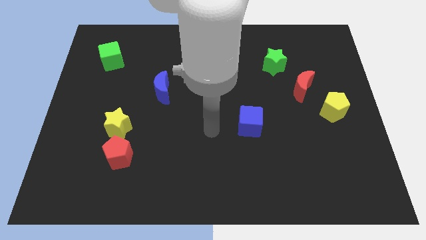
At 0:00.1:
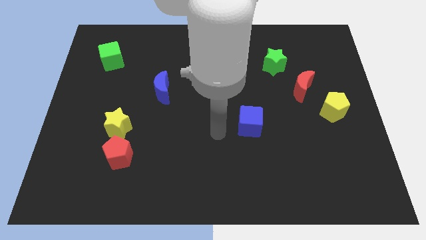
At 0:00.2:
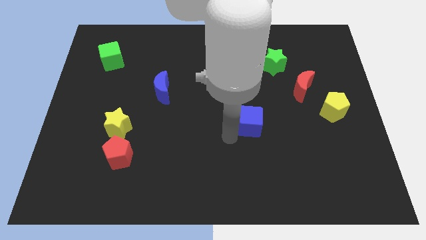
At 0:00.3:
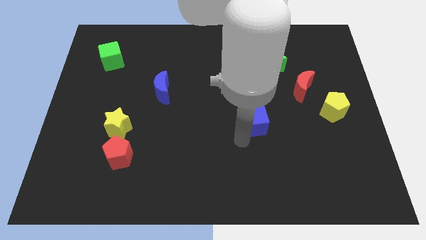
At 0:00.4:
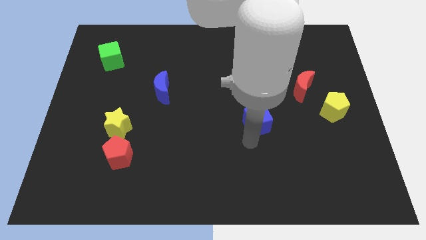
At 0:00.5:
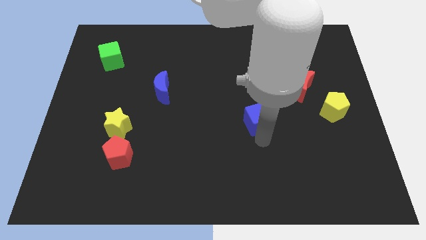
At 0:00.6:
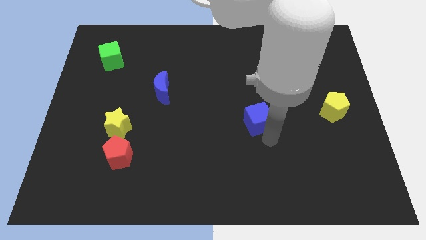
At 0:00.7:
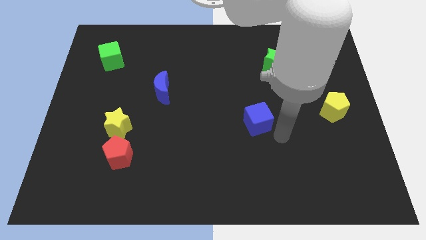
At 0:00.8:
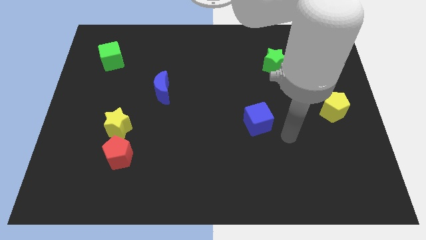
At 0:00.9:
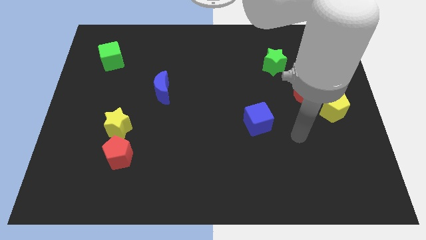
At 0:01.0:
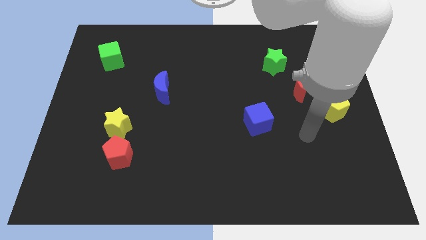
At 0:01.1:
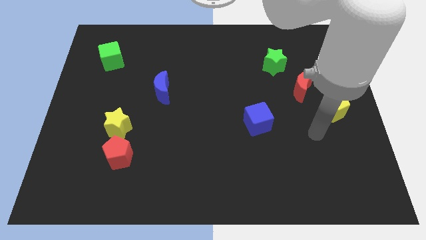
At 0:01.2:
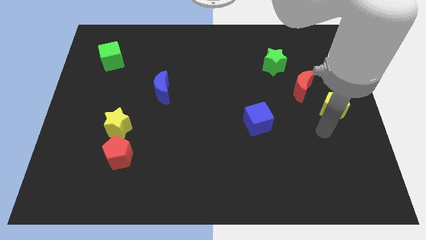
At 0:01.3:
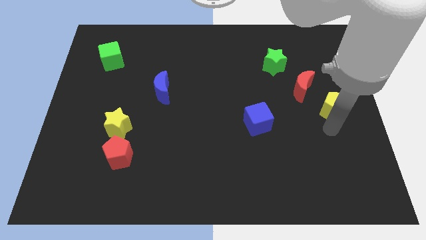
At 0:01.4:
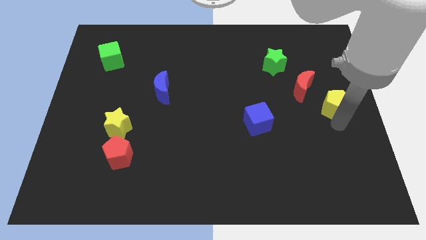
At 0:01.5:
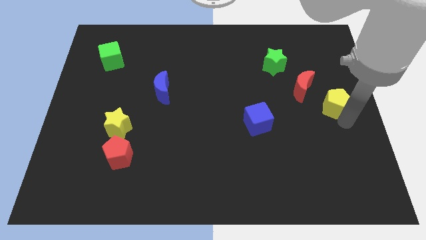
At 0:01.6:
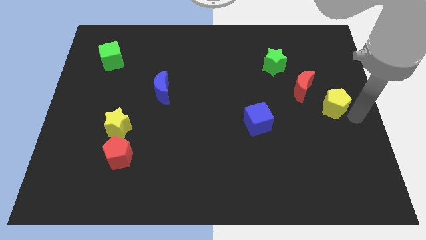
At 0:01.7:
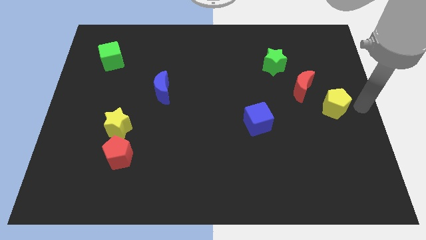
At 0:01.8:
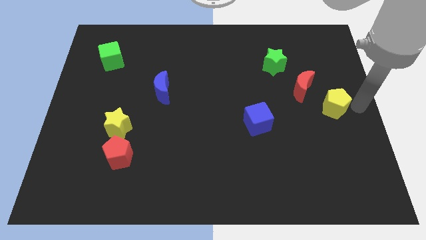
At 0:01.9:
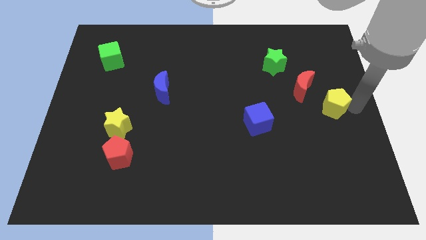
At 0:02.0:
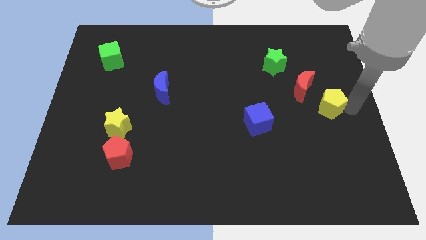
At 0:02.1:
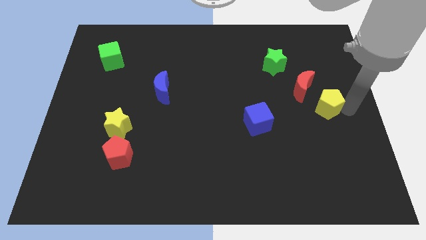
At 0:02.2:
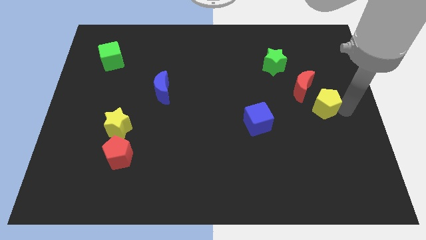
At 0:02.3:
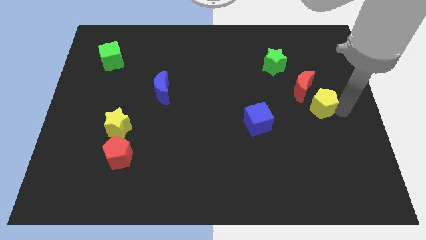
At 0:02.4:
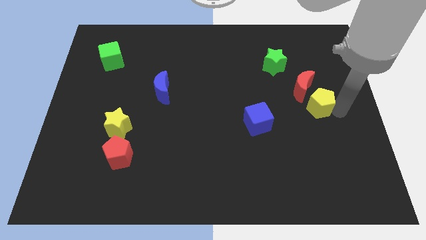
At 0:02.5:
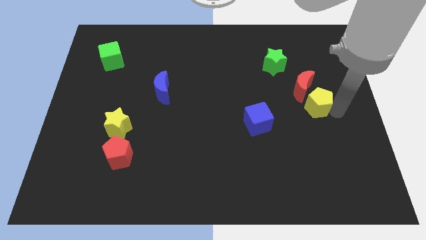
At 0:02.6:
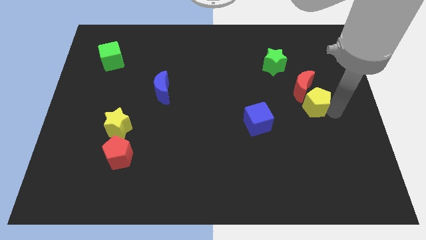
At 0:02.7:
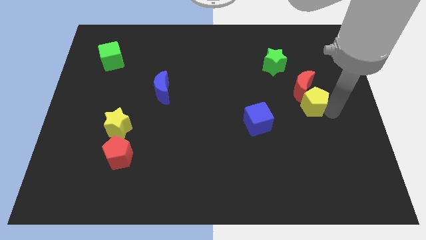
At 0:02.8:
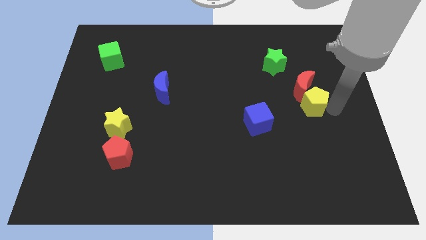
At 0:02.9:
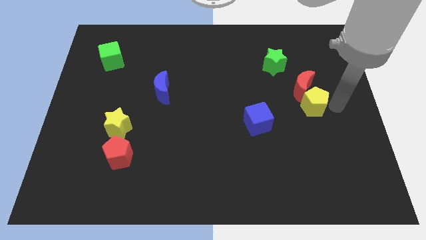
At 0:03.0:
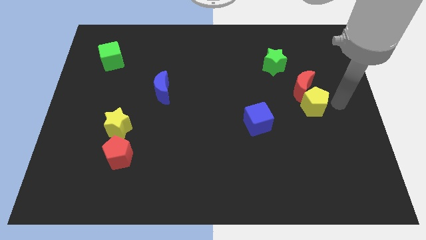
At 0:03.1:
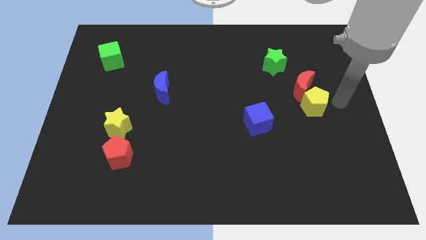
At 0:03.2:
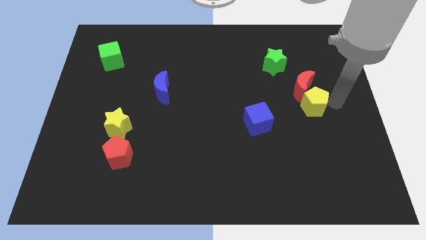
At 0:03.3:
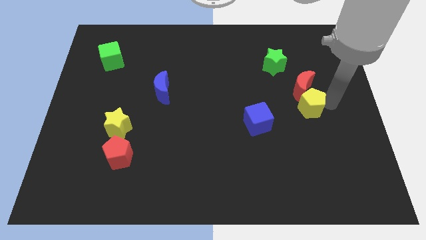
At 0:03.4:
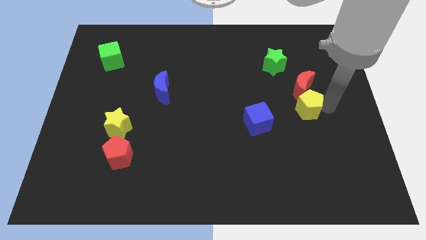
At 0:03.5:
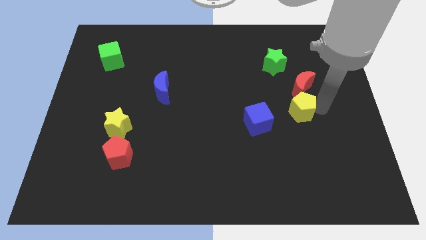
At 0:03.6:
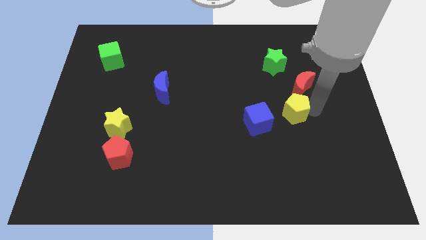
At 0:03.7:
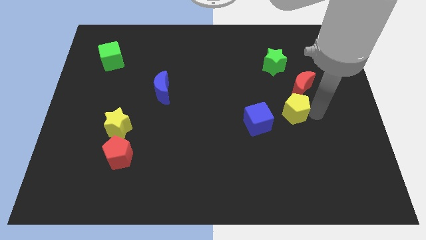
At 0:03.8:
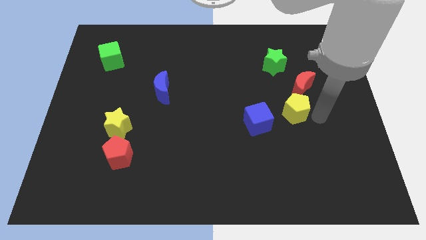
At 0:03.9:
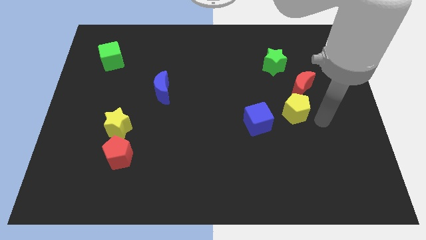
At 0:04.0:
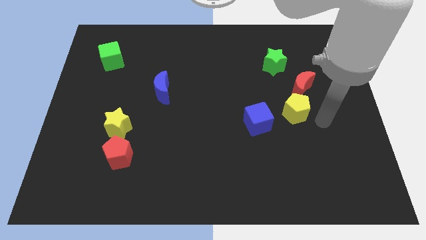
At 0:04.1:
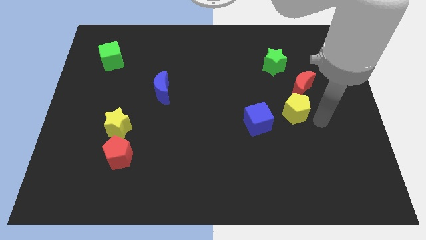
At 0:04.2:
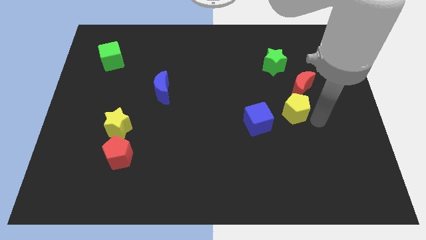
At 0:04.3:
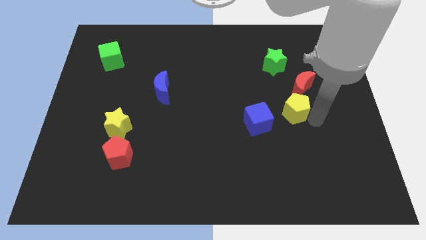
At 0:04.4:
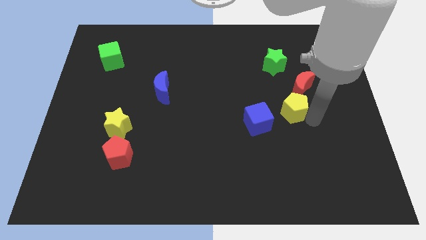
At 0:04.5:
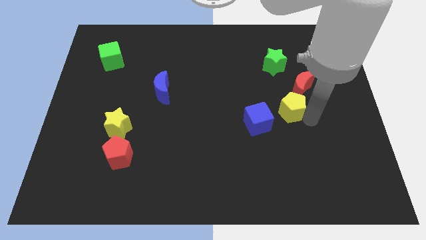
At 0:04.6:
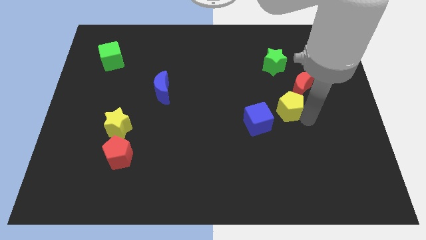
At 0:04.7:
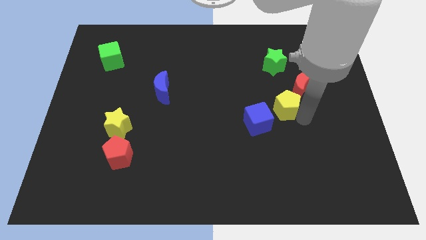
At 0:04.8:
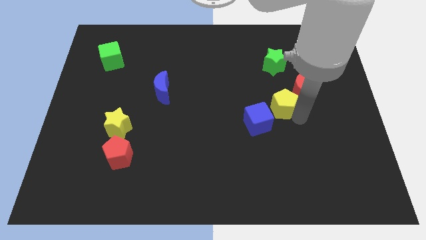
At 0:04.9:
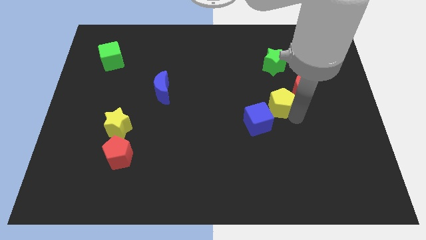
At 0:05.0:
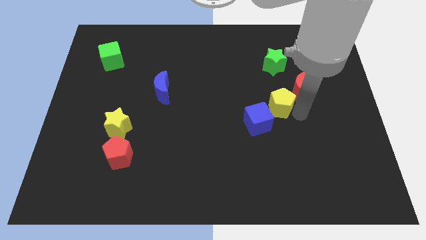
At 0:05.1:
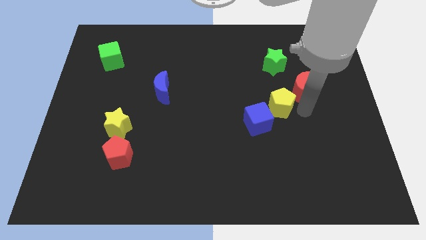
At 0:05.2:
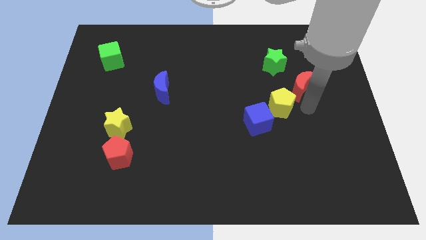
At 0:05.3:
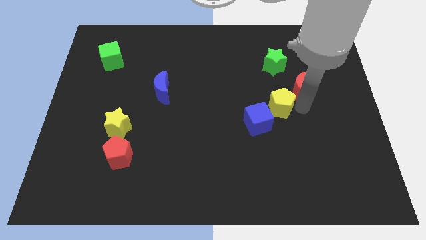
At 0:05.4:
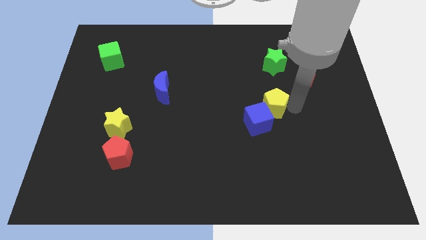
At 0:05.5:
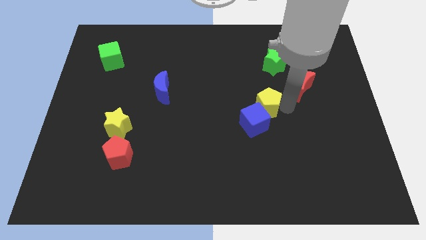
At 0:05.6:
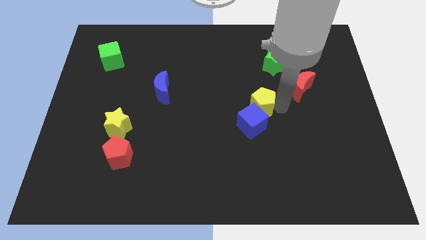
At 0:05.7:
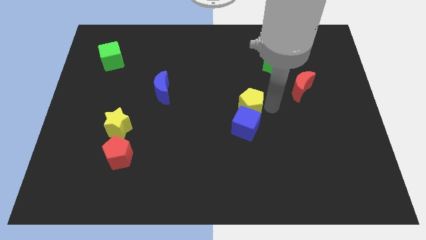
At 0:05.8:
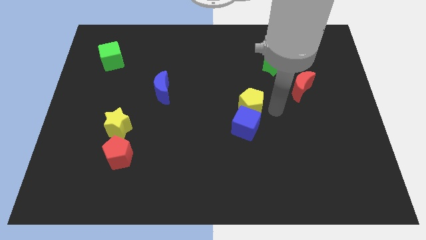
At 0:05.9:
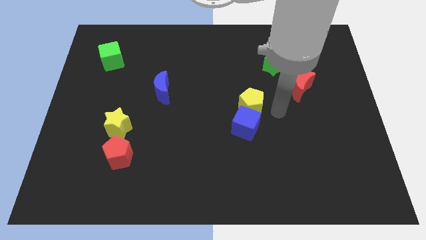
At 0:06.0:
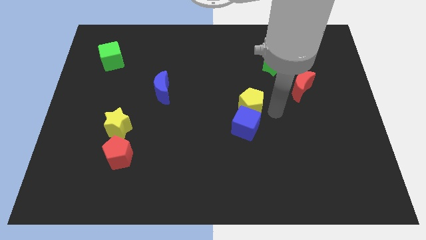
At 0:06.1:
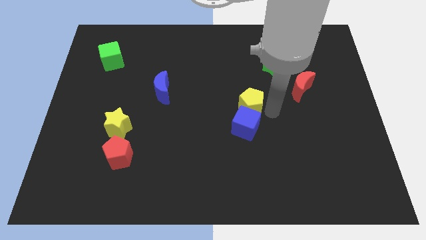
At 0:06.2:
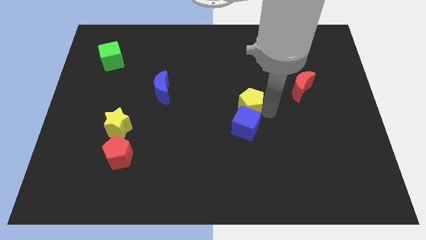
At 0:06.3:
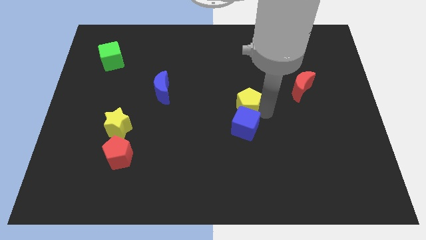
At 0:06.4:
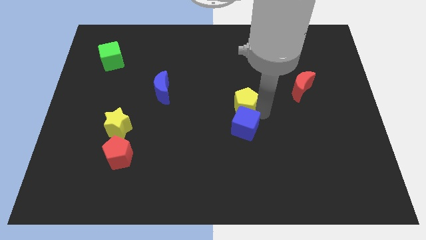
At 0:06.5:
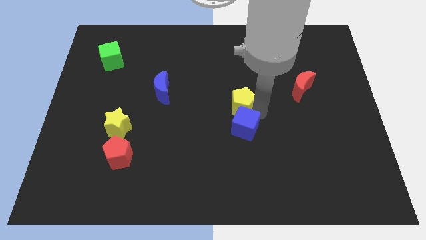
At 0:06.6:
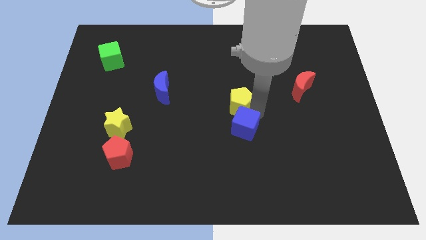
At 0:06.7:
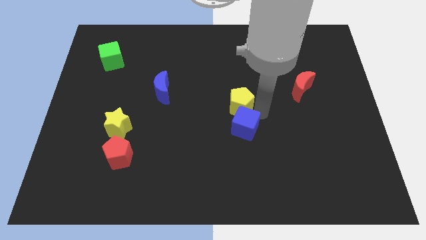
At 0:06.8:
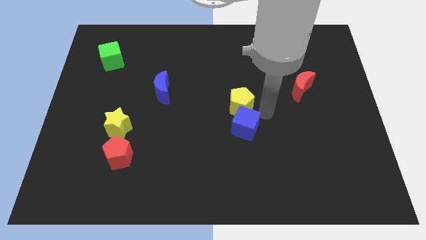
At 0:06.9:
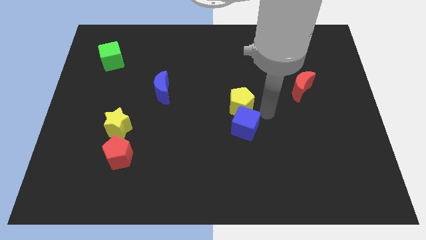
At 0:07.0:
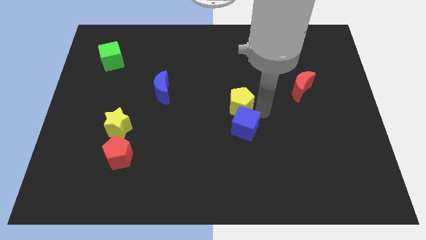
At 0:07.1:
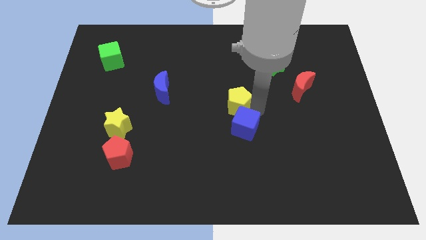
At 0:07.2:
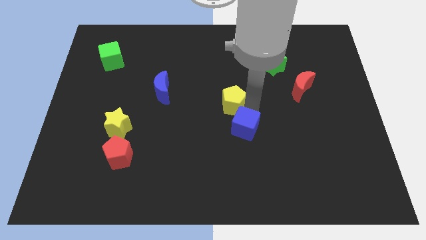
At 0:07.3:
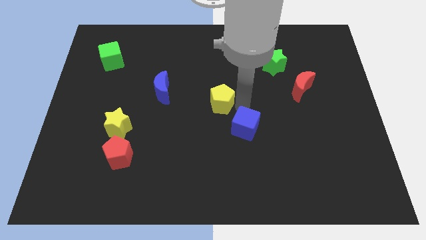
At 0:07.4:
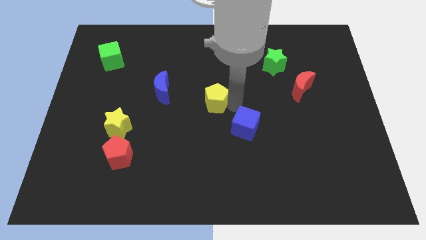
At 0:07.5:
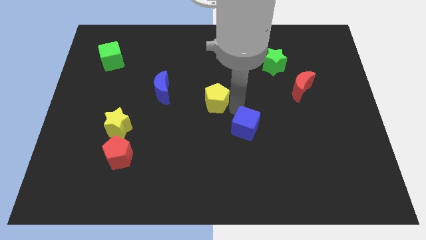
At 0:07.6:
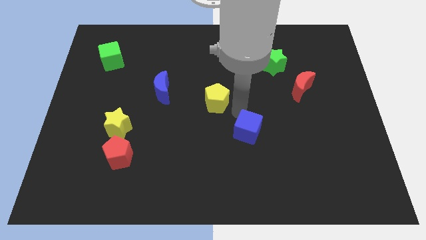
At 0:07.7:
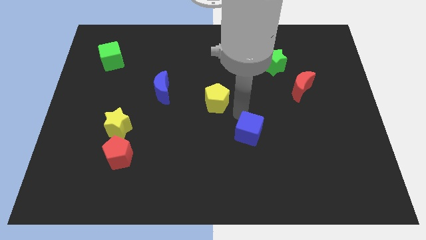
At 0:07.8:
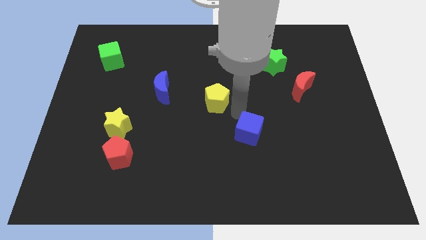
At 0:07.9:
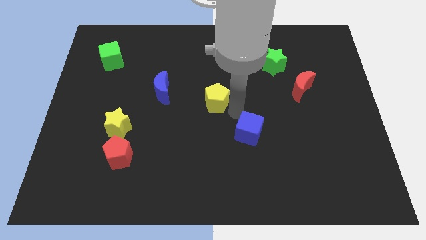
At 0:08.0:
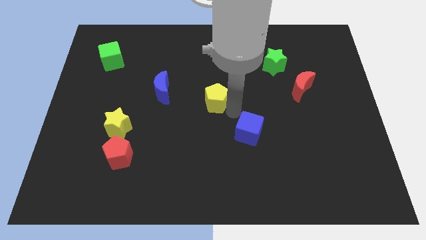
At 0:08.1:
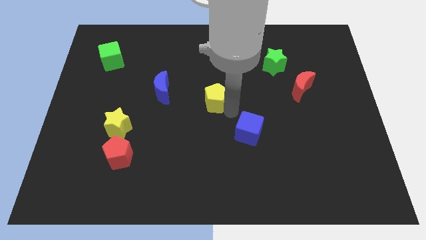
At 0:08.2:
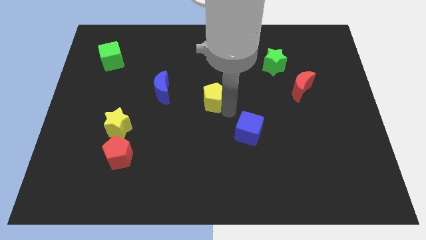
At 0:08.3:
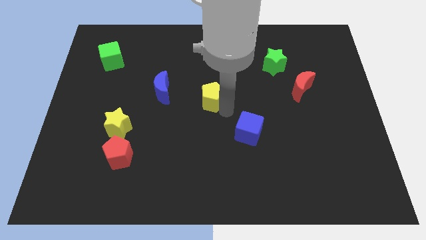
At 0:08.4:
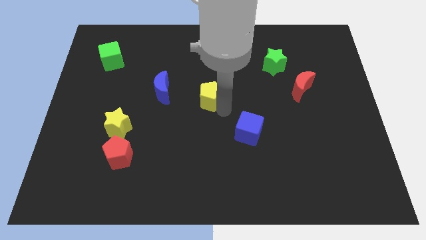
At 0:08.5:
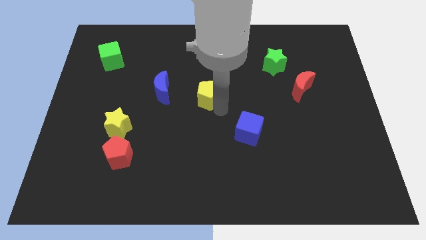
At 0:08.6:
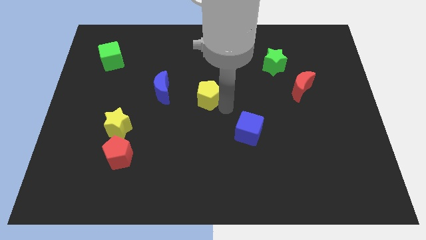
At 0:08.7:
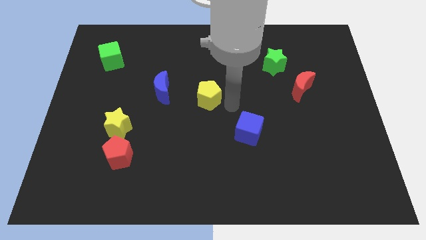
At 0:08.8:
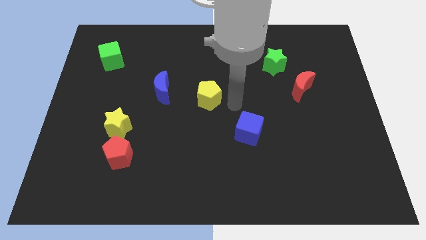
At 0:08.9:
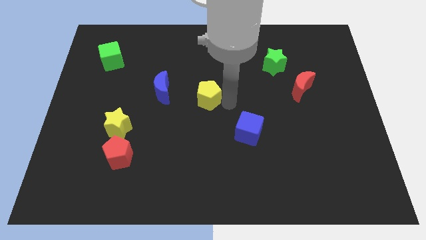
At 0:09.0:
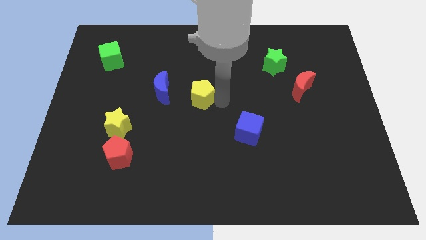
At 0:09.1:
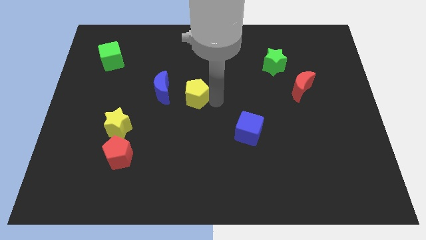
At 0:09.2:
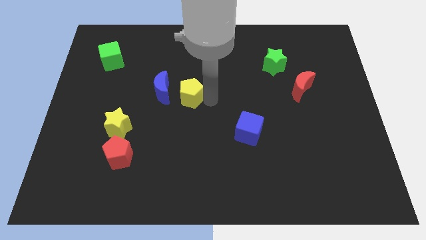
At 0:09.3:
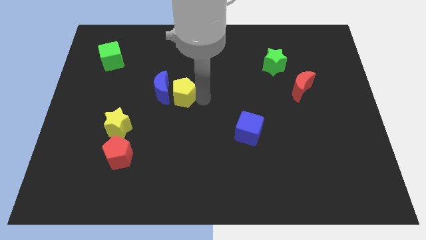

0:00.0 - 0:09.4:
slide the yellow pentagon towards the blue moon
